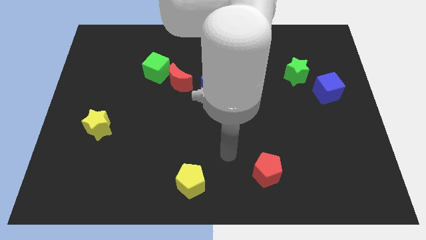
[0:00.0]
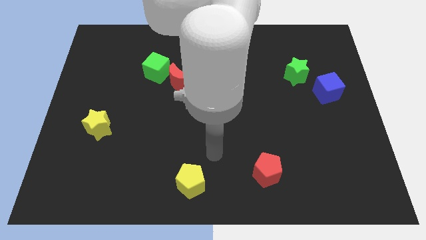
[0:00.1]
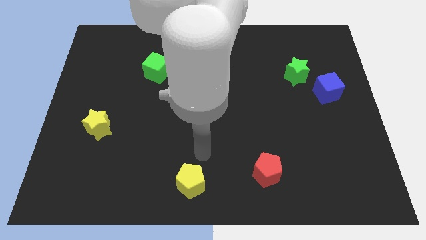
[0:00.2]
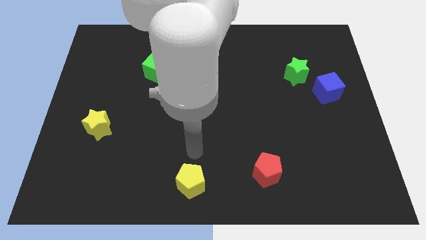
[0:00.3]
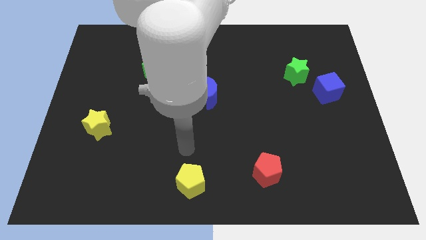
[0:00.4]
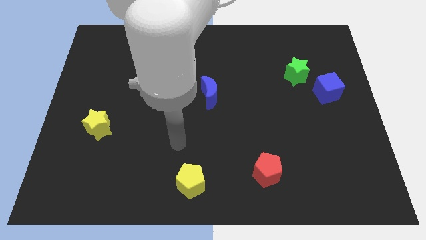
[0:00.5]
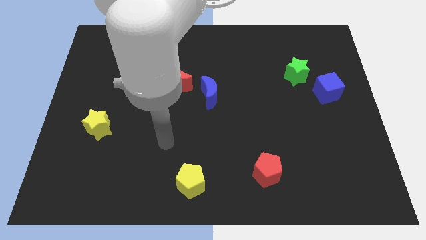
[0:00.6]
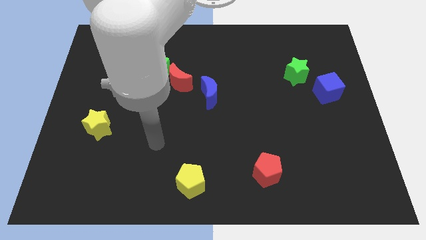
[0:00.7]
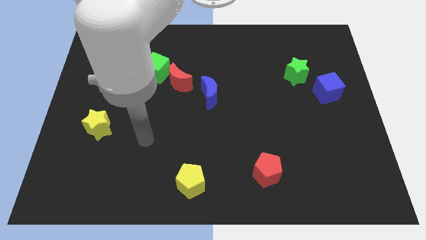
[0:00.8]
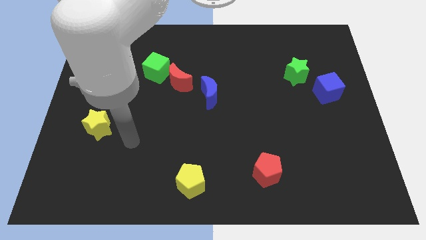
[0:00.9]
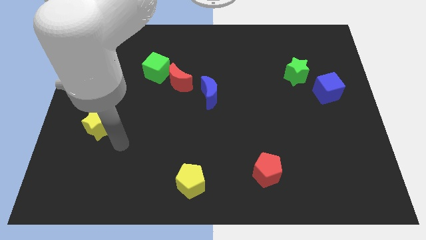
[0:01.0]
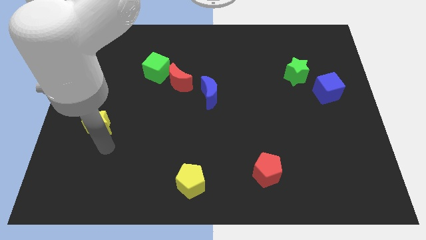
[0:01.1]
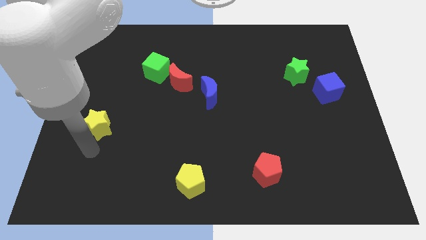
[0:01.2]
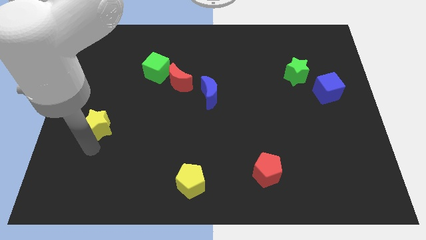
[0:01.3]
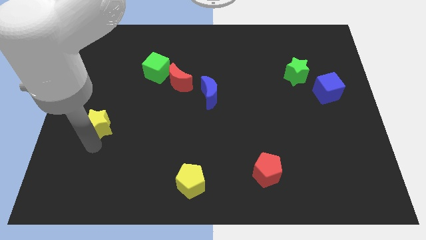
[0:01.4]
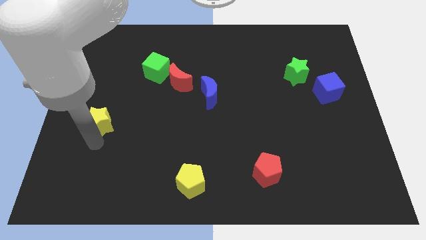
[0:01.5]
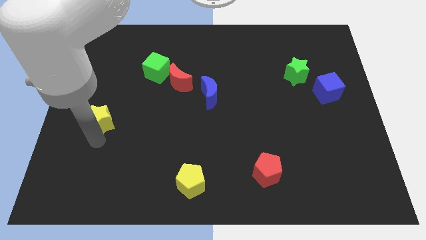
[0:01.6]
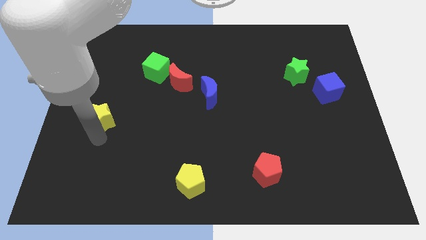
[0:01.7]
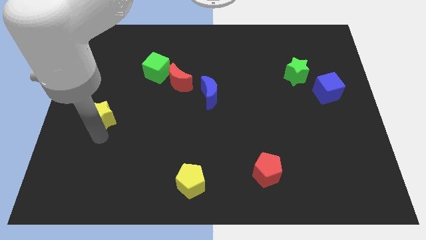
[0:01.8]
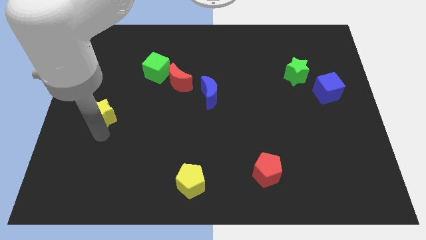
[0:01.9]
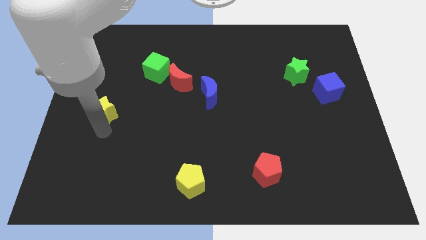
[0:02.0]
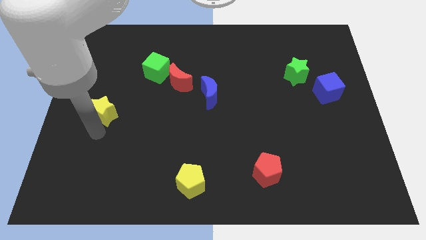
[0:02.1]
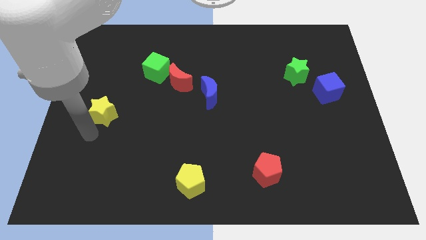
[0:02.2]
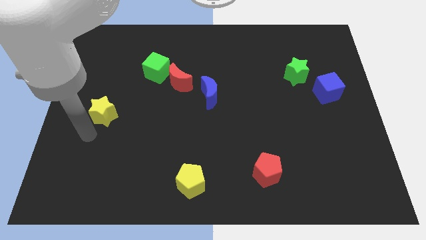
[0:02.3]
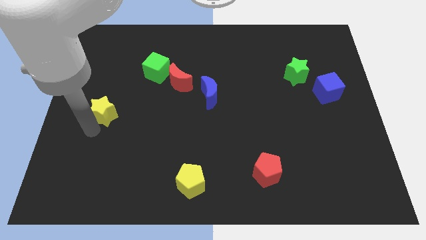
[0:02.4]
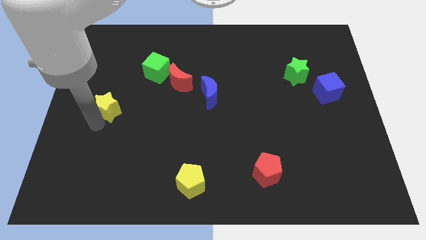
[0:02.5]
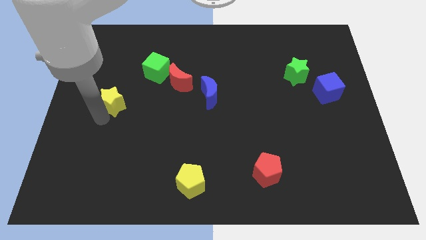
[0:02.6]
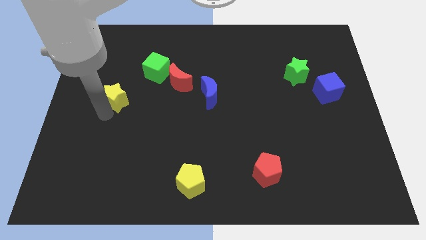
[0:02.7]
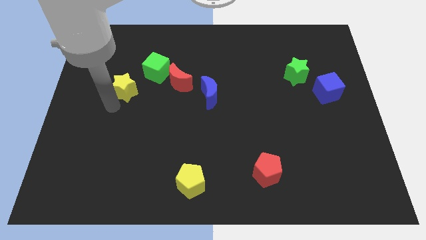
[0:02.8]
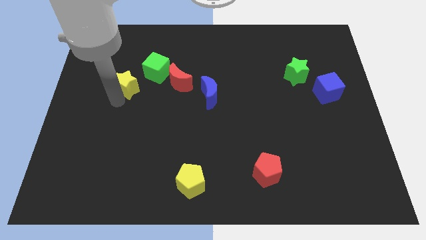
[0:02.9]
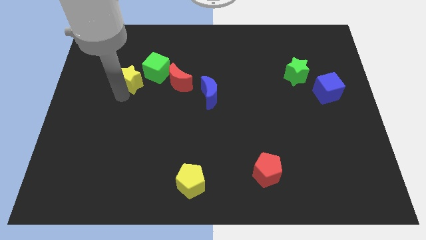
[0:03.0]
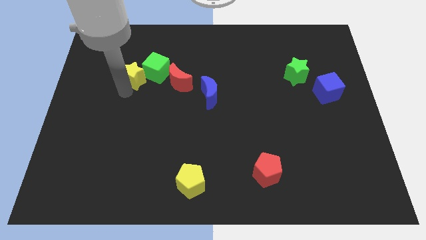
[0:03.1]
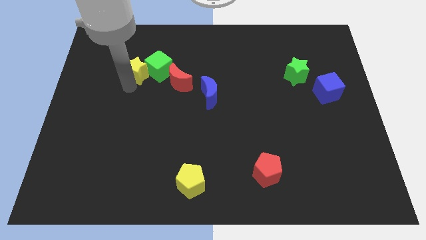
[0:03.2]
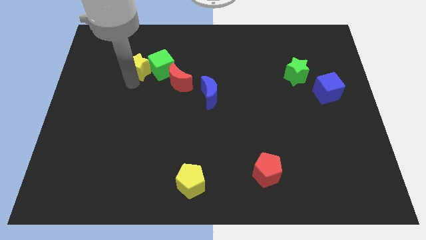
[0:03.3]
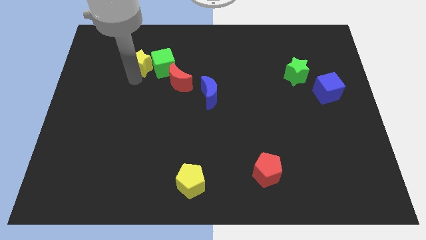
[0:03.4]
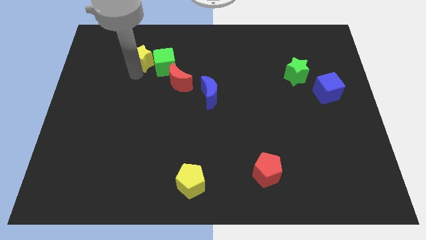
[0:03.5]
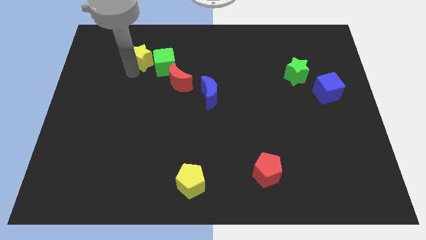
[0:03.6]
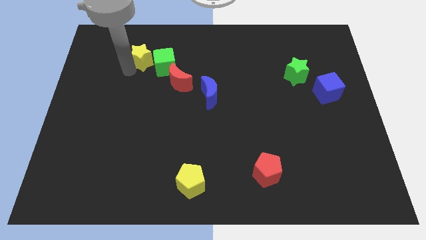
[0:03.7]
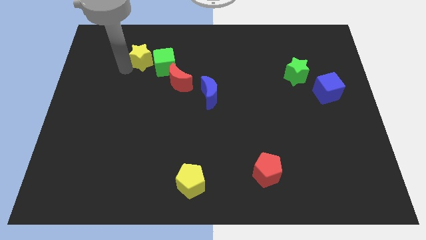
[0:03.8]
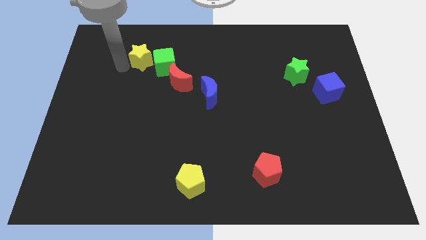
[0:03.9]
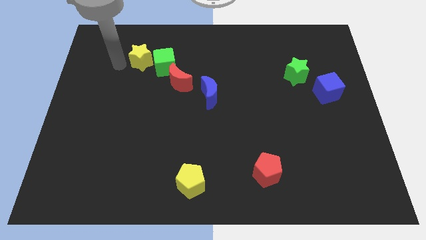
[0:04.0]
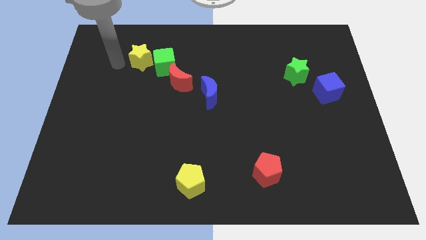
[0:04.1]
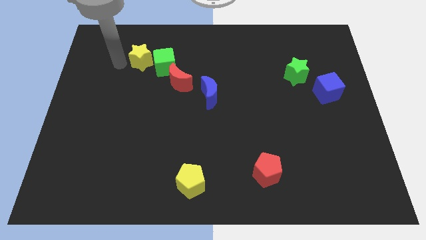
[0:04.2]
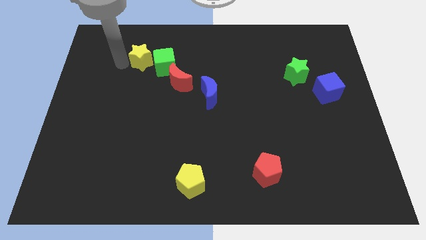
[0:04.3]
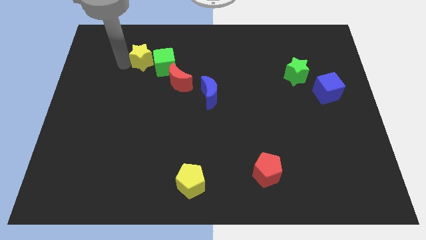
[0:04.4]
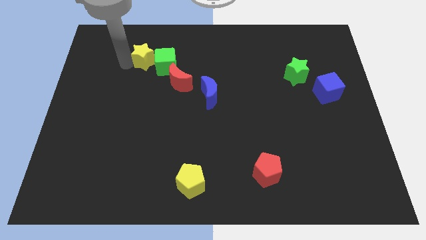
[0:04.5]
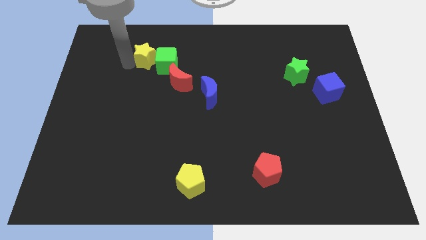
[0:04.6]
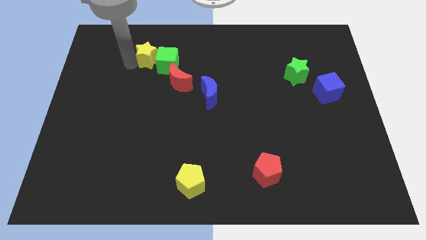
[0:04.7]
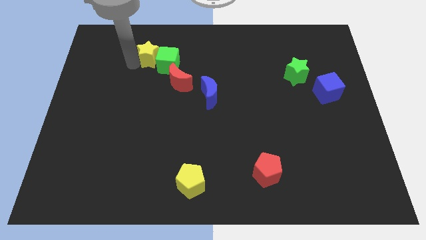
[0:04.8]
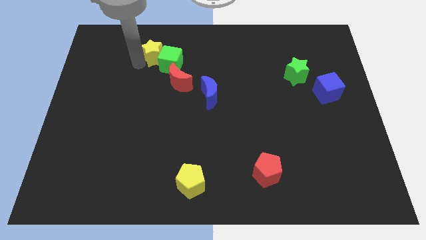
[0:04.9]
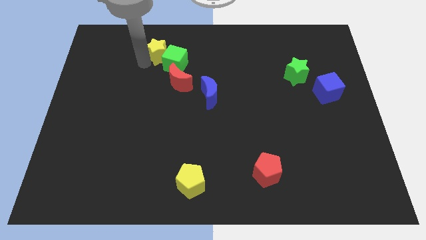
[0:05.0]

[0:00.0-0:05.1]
move the yellow star diagonally up and right

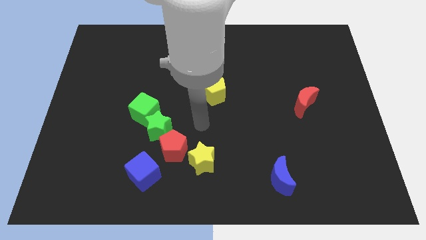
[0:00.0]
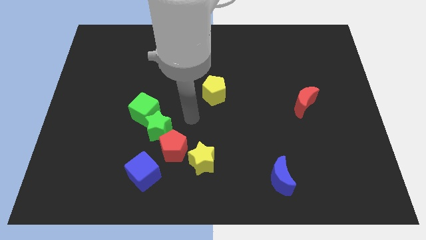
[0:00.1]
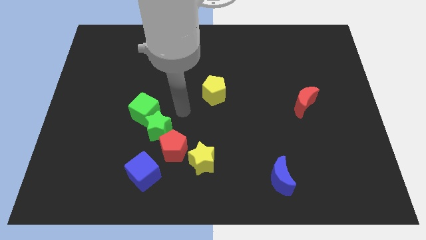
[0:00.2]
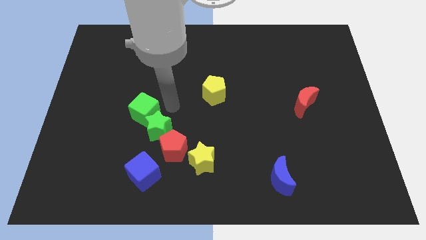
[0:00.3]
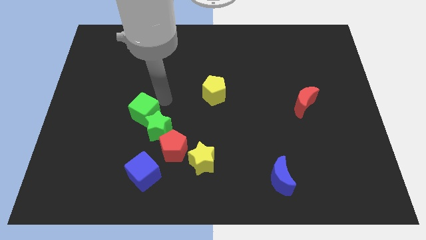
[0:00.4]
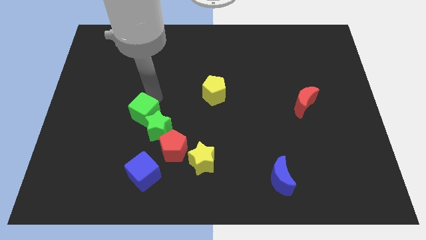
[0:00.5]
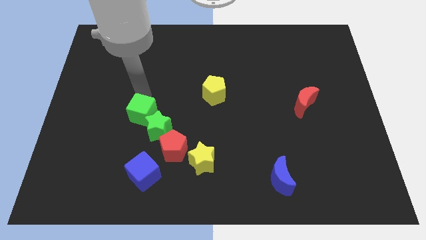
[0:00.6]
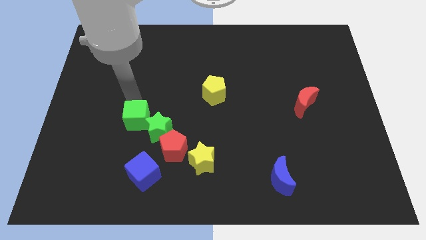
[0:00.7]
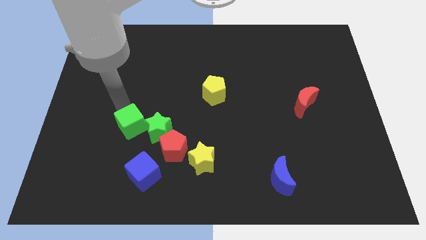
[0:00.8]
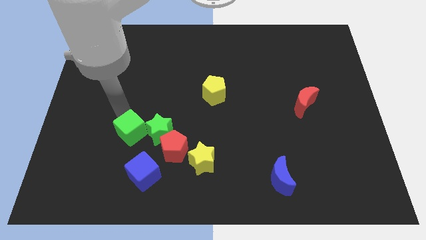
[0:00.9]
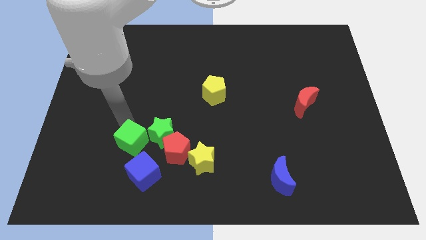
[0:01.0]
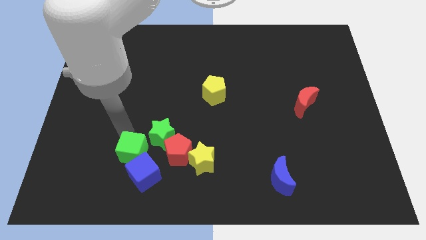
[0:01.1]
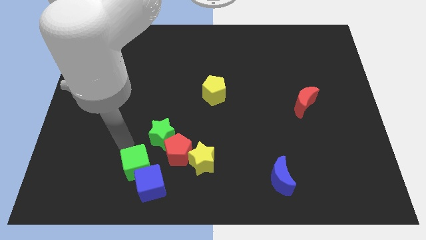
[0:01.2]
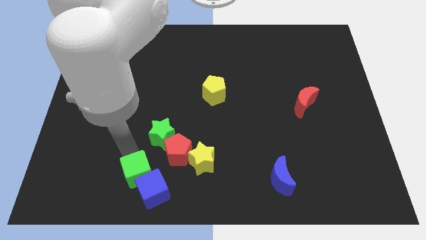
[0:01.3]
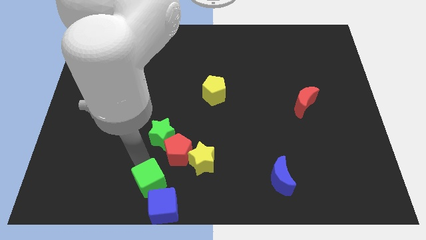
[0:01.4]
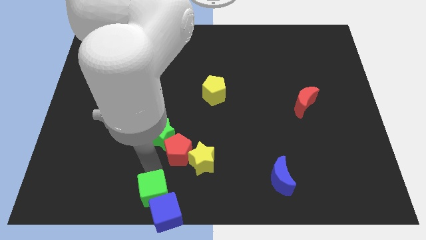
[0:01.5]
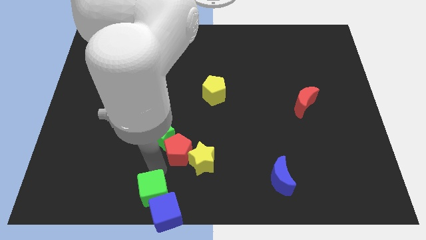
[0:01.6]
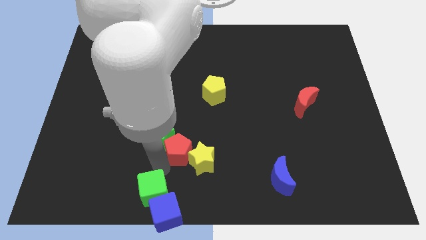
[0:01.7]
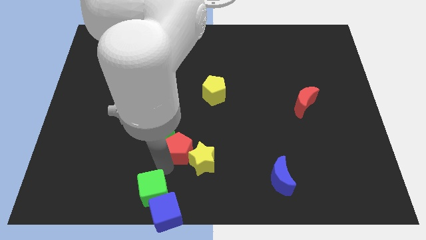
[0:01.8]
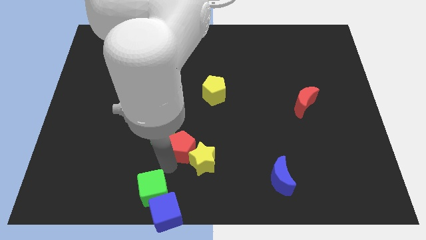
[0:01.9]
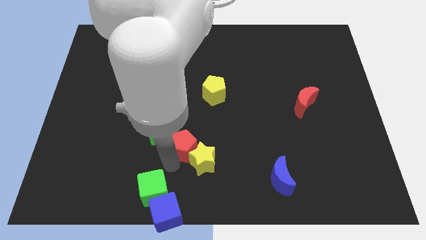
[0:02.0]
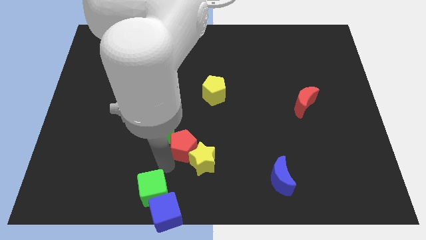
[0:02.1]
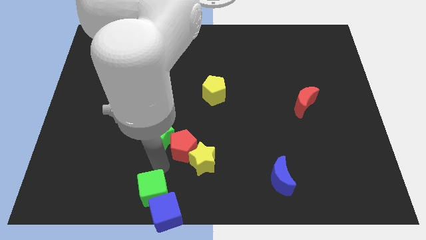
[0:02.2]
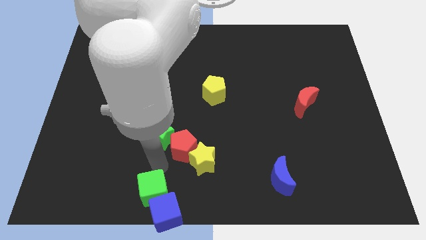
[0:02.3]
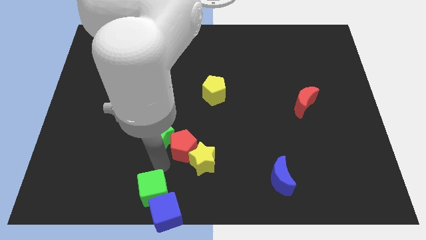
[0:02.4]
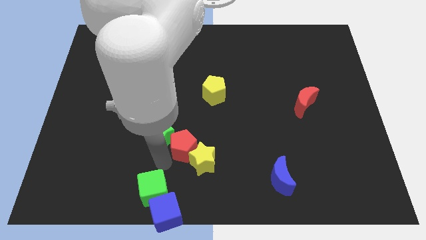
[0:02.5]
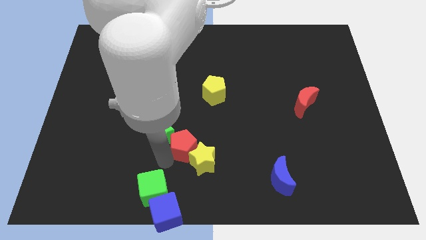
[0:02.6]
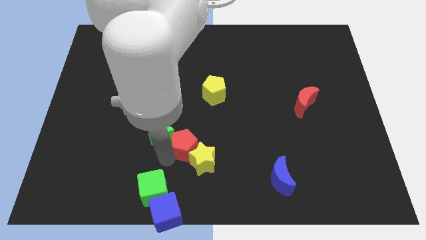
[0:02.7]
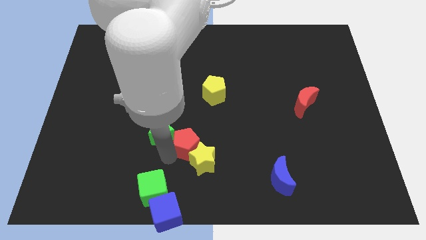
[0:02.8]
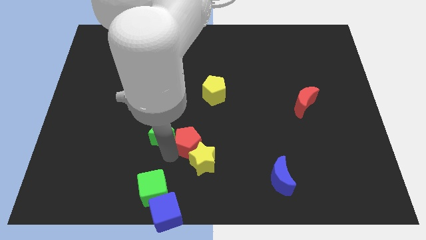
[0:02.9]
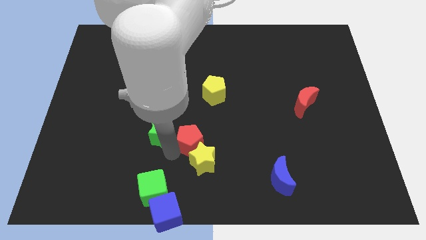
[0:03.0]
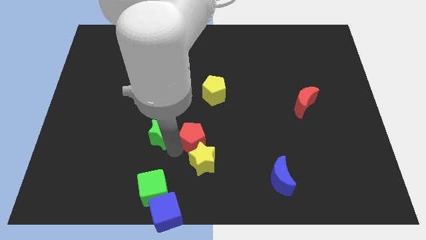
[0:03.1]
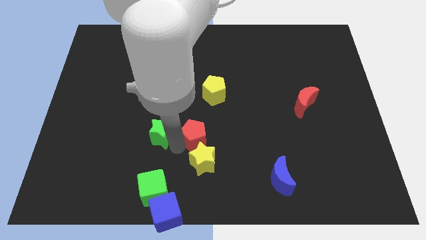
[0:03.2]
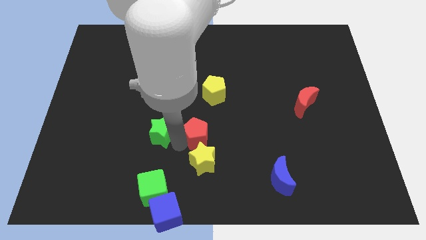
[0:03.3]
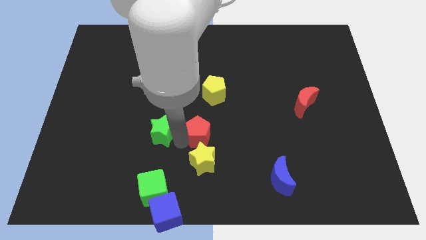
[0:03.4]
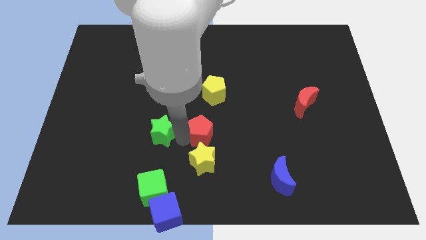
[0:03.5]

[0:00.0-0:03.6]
move the red pentagon somewhat upwards and right
